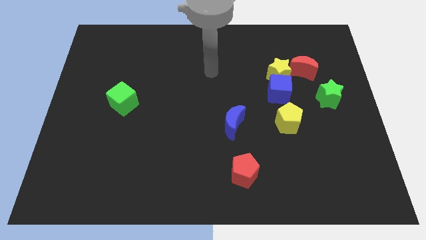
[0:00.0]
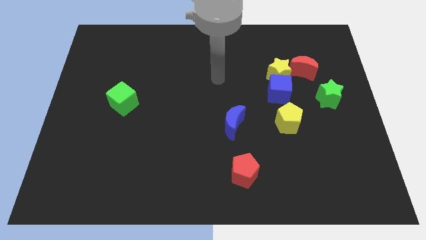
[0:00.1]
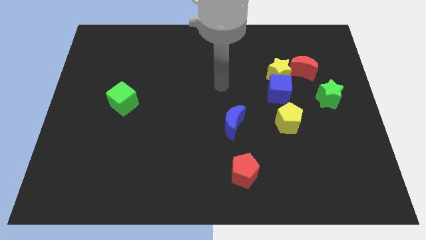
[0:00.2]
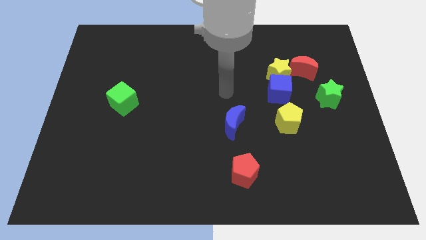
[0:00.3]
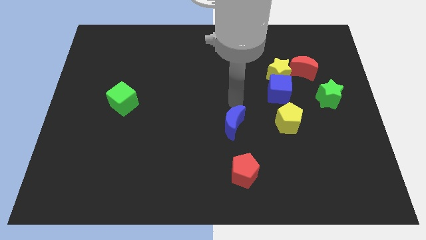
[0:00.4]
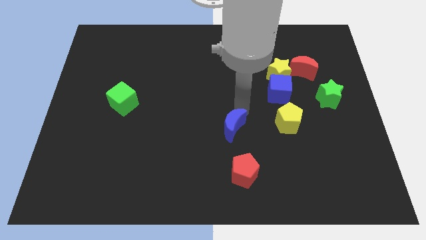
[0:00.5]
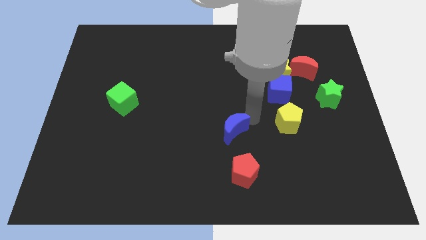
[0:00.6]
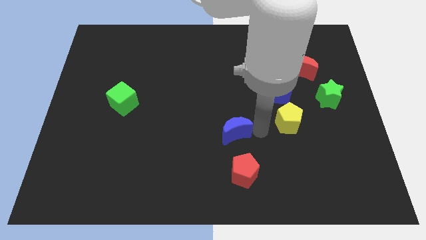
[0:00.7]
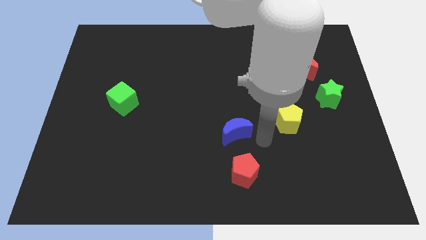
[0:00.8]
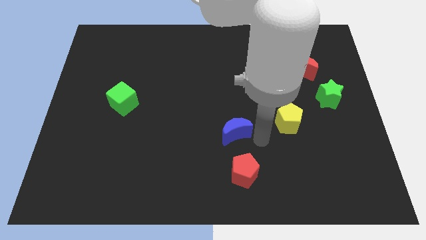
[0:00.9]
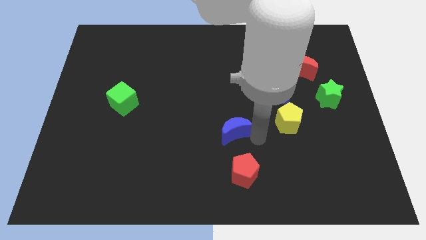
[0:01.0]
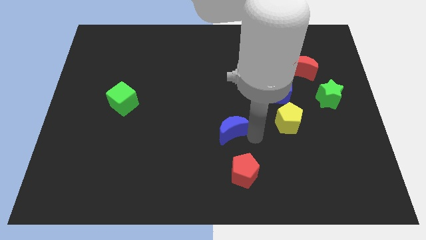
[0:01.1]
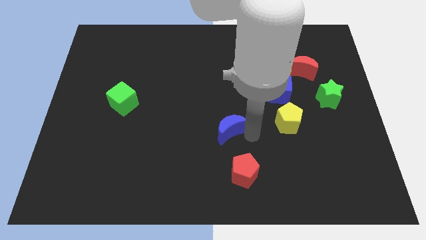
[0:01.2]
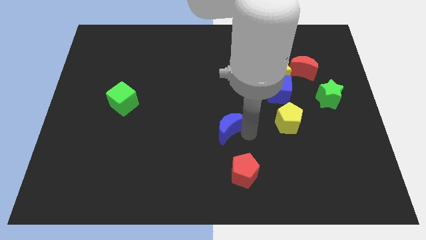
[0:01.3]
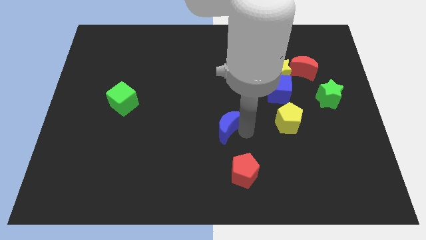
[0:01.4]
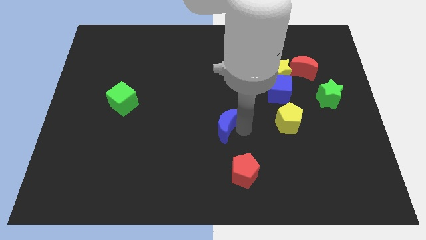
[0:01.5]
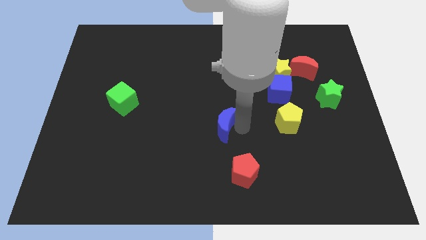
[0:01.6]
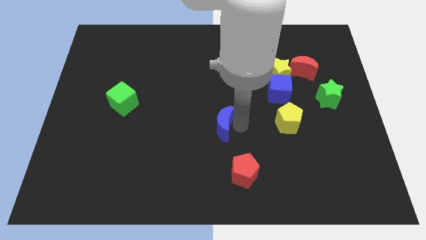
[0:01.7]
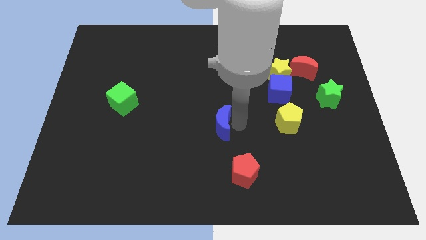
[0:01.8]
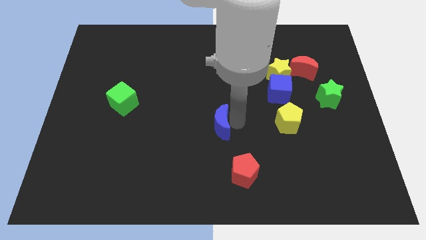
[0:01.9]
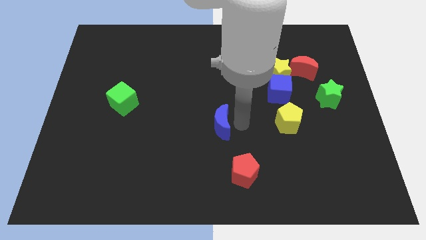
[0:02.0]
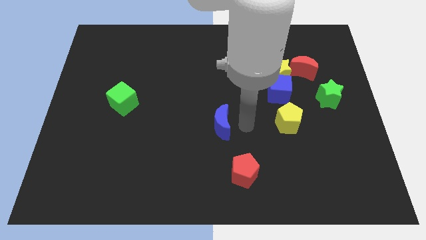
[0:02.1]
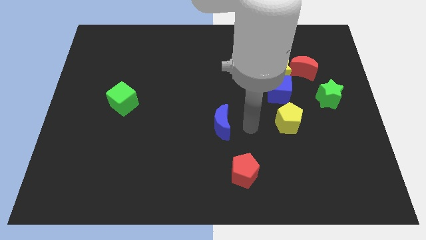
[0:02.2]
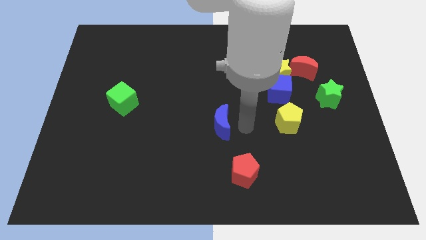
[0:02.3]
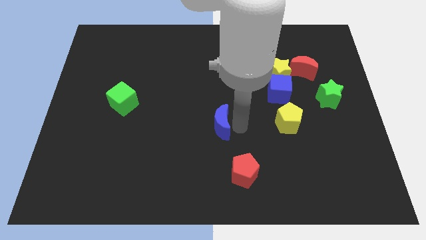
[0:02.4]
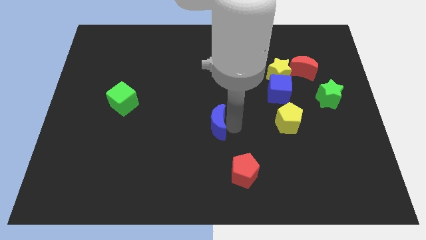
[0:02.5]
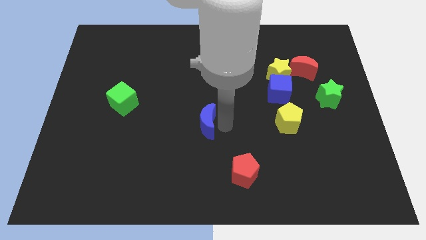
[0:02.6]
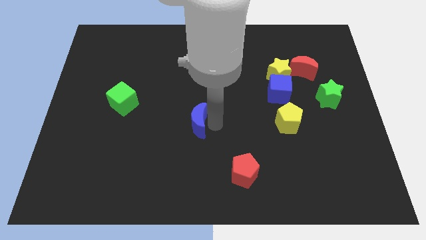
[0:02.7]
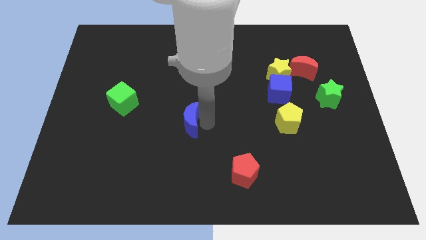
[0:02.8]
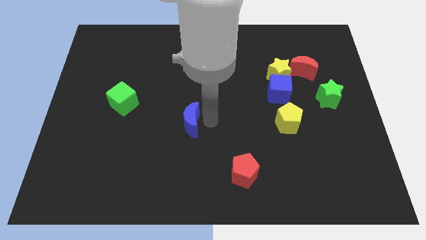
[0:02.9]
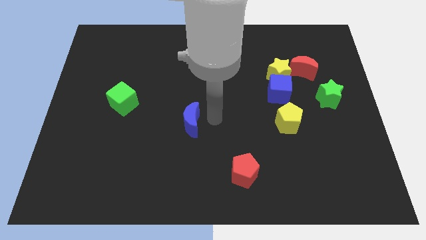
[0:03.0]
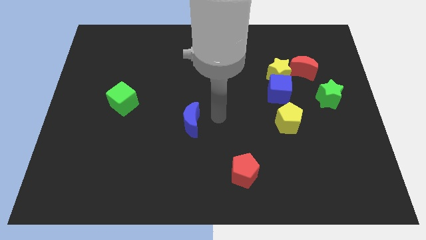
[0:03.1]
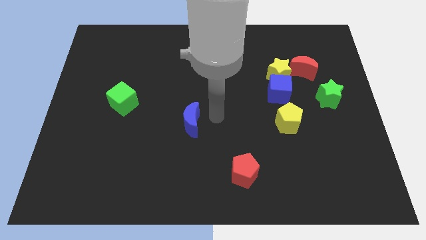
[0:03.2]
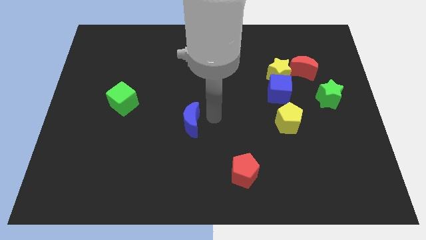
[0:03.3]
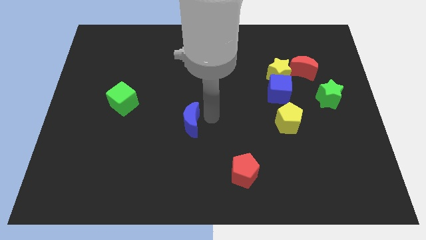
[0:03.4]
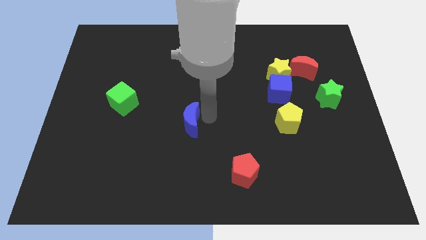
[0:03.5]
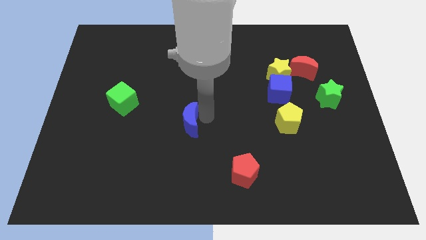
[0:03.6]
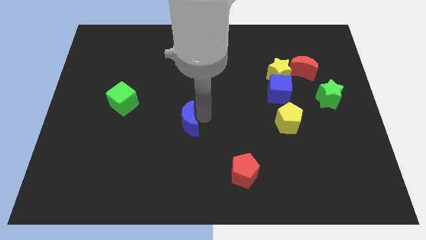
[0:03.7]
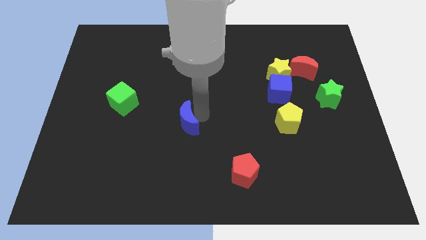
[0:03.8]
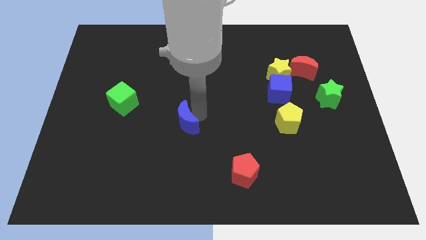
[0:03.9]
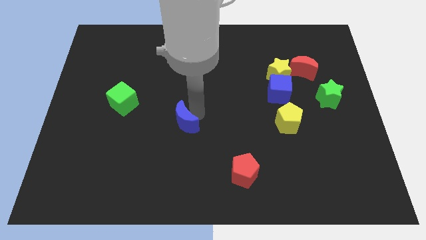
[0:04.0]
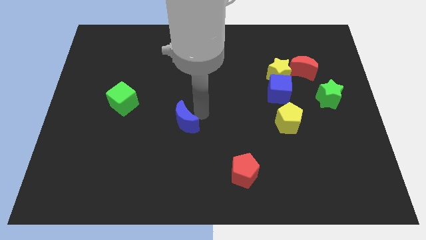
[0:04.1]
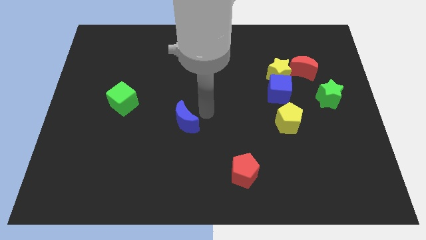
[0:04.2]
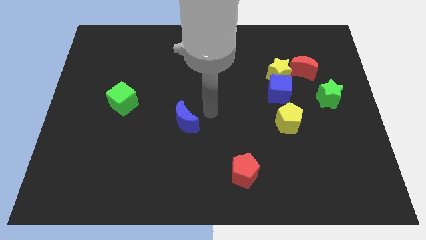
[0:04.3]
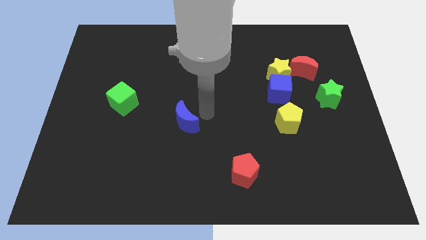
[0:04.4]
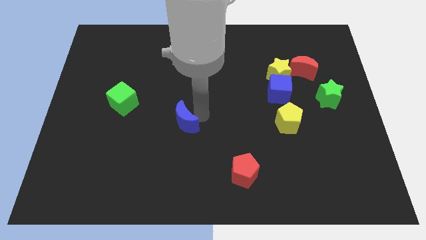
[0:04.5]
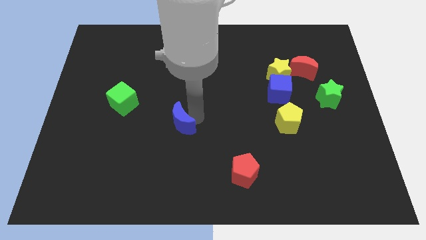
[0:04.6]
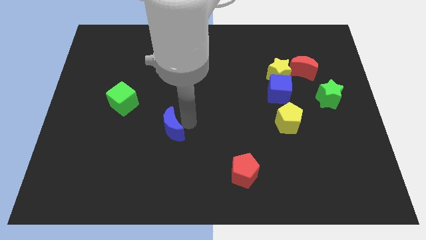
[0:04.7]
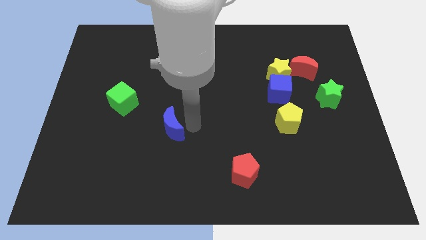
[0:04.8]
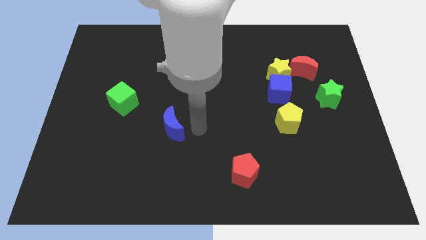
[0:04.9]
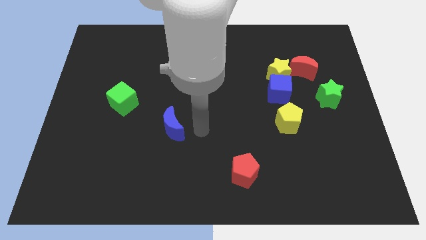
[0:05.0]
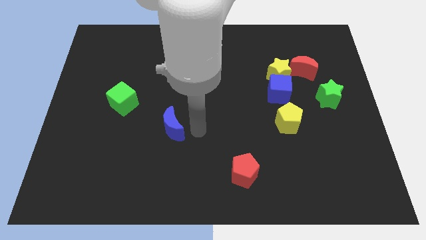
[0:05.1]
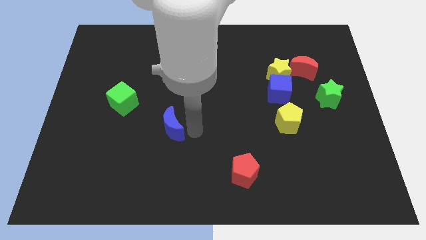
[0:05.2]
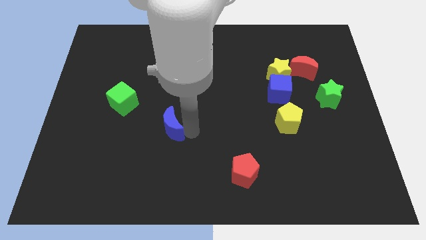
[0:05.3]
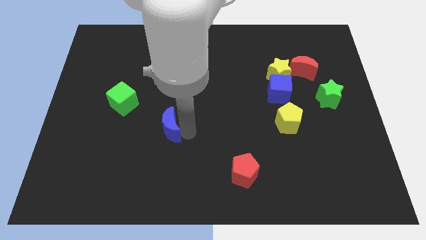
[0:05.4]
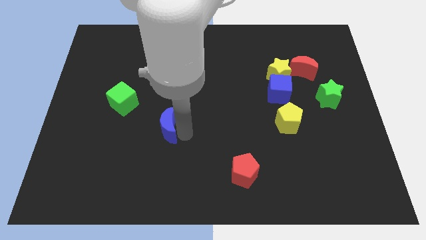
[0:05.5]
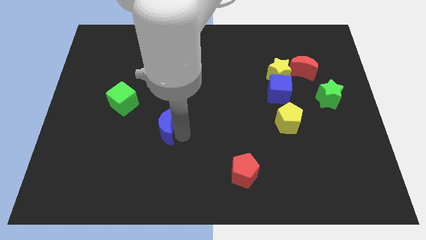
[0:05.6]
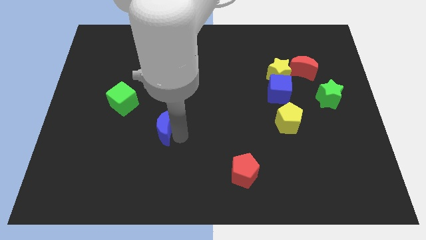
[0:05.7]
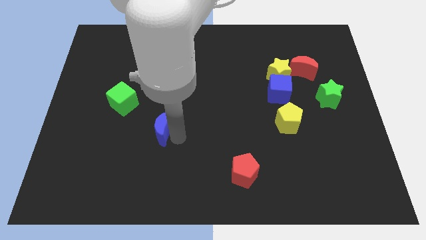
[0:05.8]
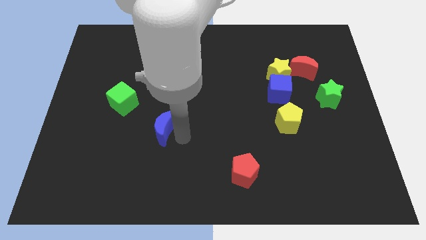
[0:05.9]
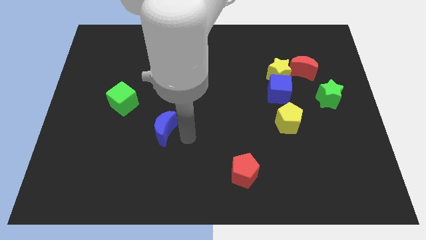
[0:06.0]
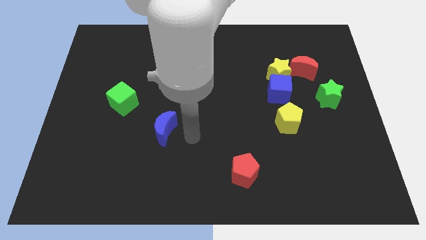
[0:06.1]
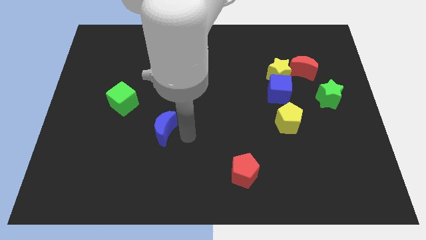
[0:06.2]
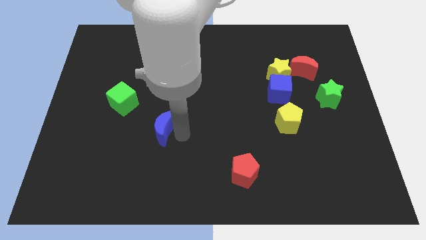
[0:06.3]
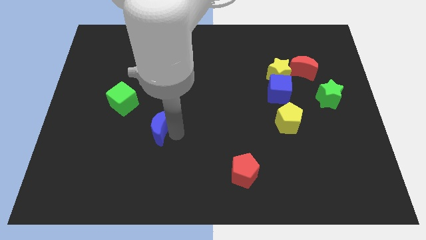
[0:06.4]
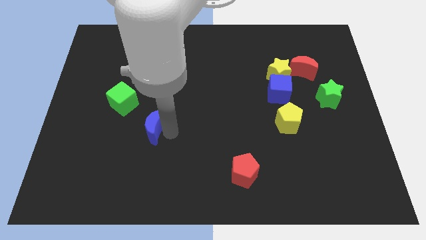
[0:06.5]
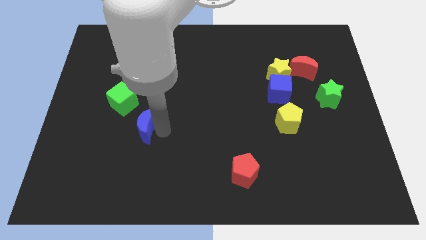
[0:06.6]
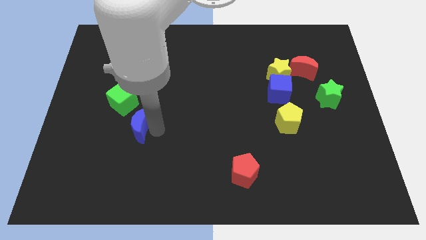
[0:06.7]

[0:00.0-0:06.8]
move the blue moon left

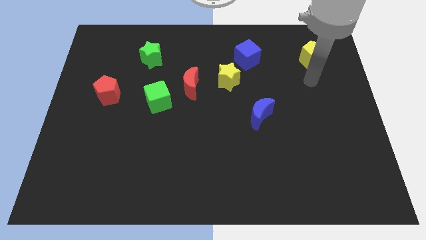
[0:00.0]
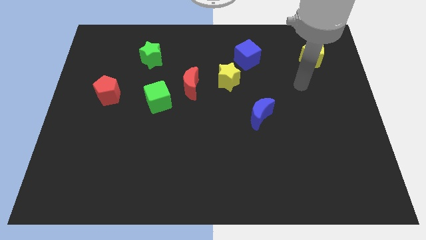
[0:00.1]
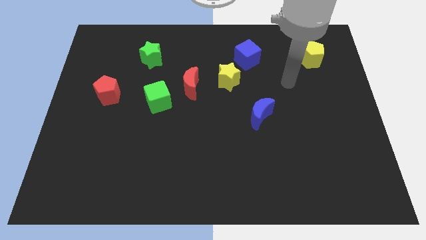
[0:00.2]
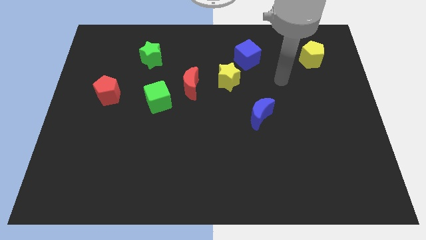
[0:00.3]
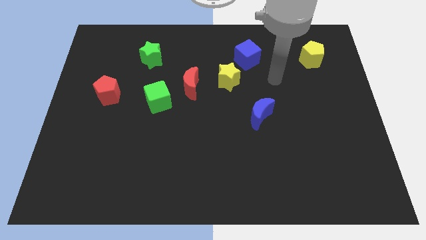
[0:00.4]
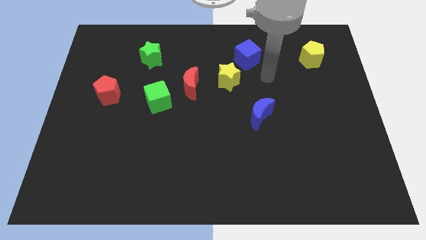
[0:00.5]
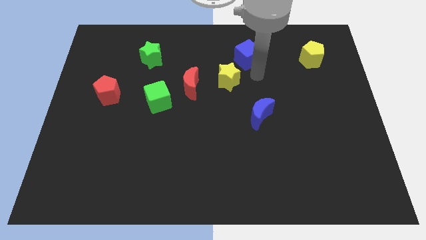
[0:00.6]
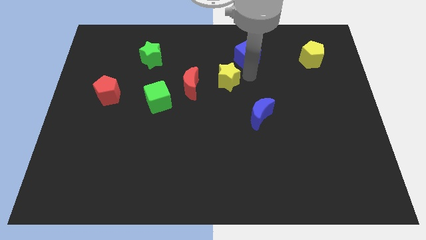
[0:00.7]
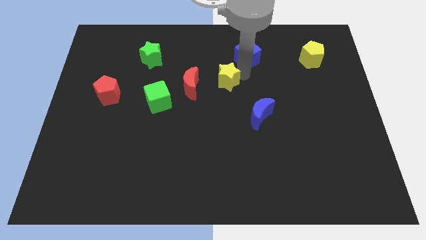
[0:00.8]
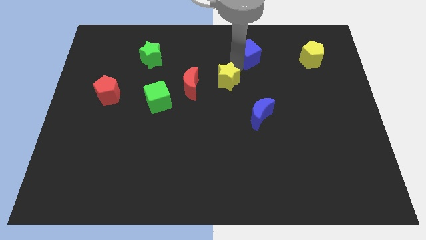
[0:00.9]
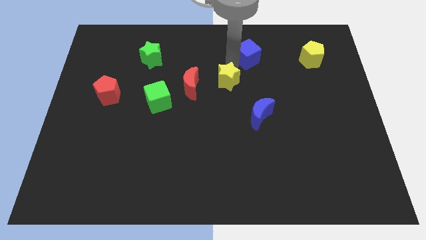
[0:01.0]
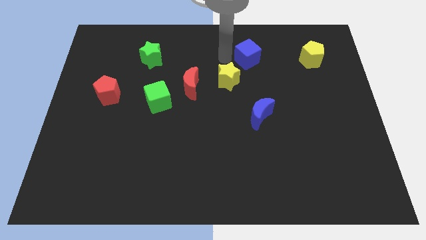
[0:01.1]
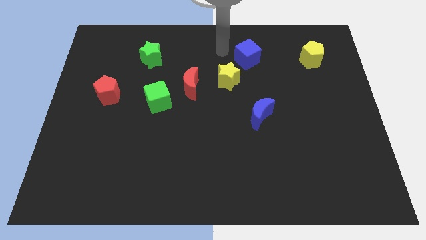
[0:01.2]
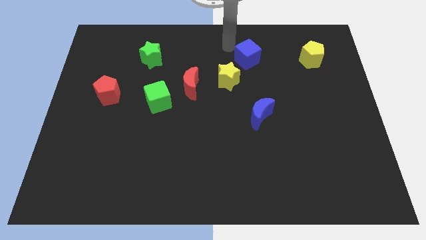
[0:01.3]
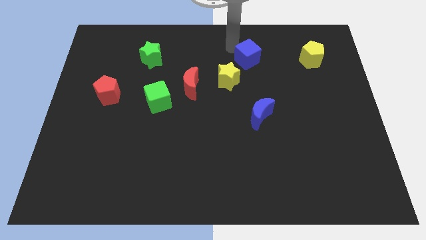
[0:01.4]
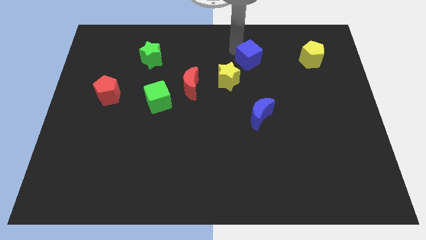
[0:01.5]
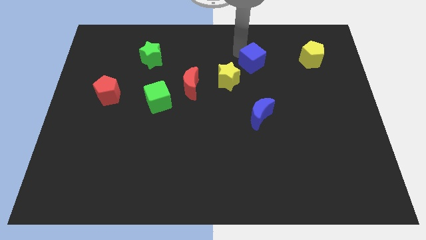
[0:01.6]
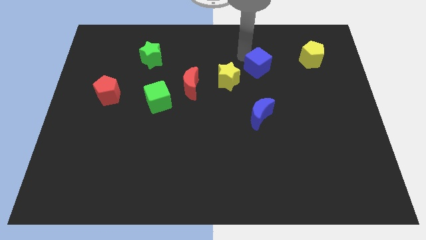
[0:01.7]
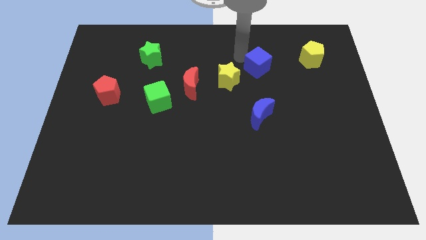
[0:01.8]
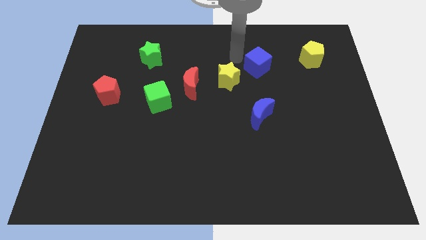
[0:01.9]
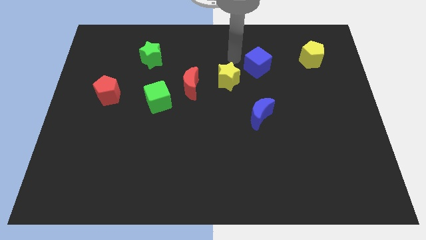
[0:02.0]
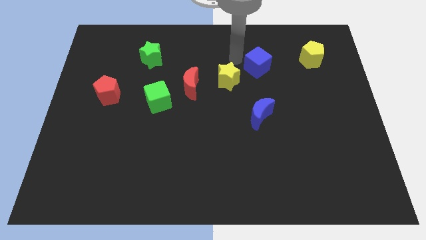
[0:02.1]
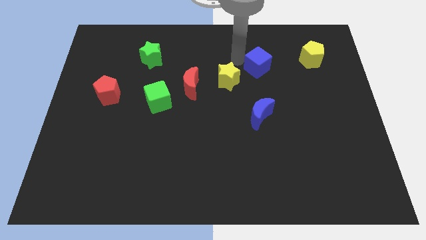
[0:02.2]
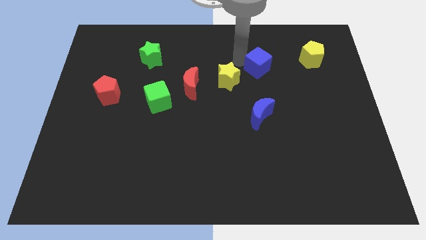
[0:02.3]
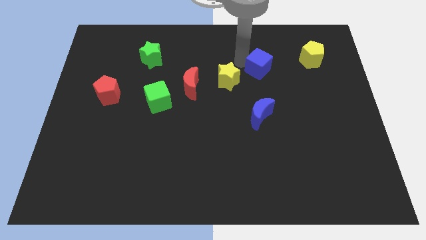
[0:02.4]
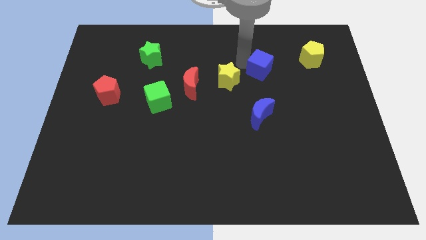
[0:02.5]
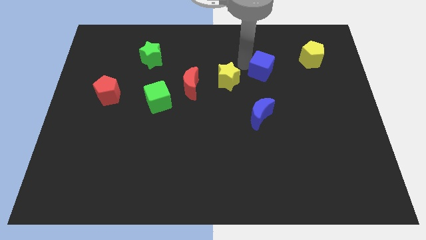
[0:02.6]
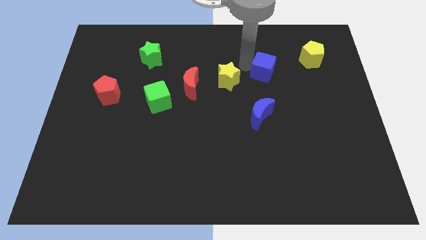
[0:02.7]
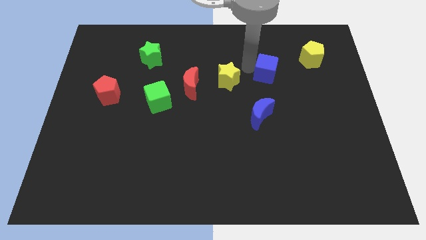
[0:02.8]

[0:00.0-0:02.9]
push the blue cube slightly down and right diagonally
